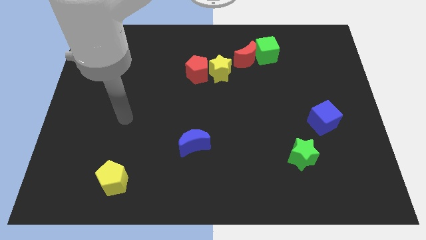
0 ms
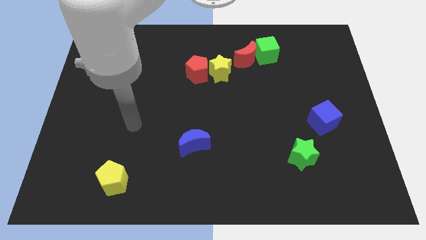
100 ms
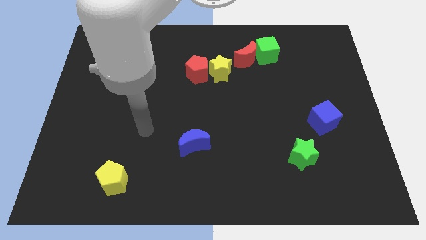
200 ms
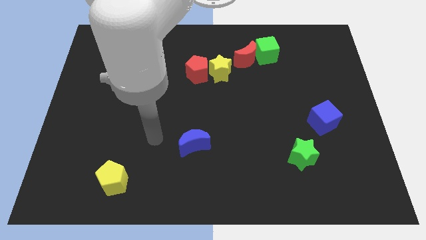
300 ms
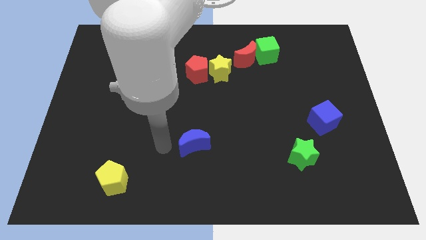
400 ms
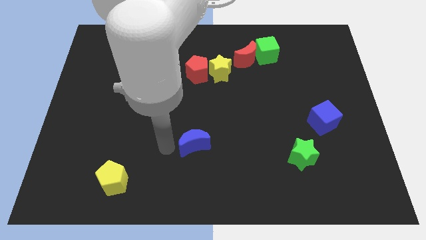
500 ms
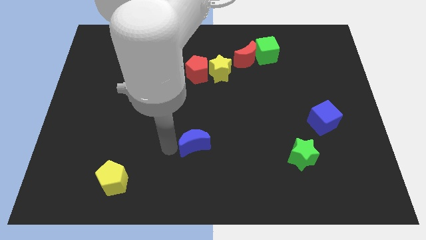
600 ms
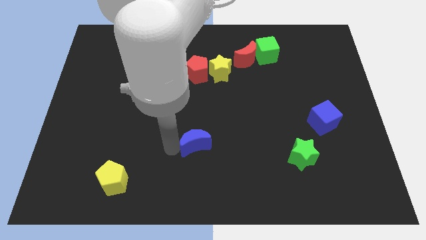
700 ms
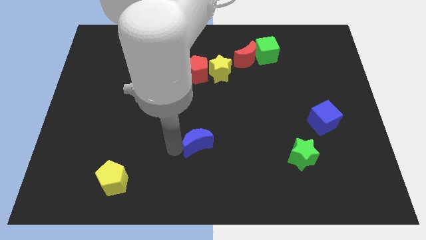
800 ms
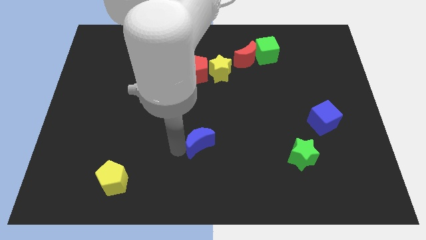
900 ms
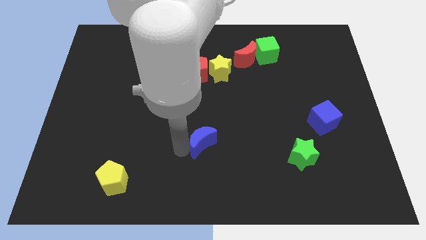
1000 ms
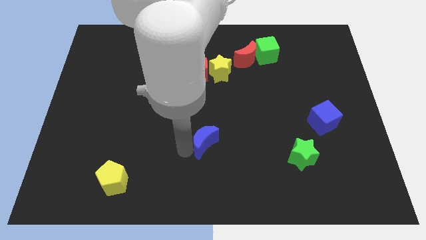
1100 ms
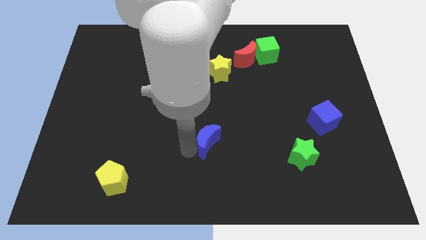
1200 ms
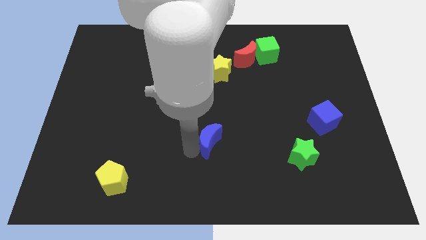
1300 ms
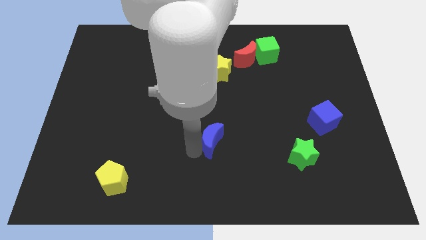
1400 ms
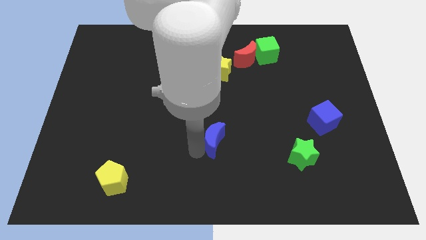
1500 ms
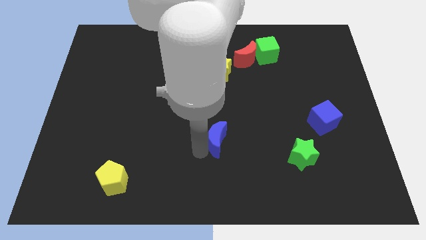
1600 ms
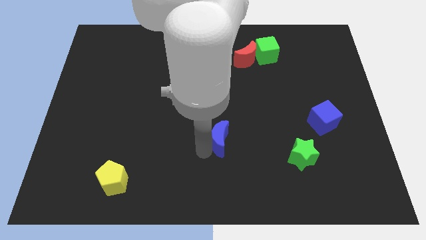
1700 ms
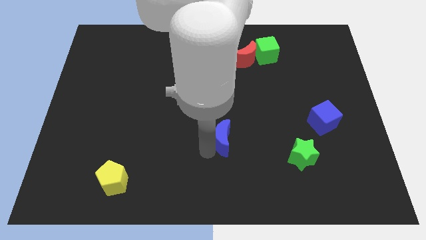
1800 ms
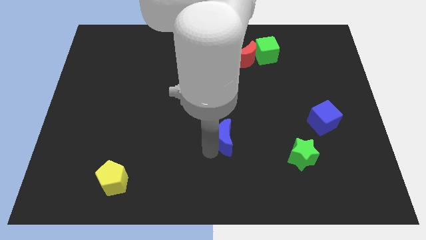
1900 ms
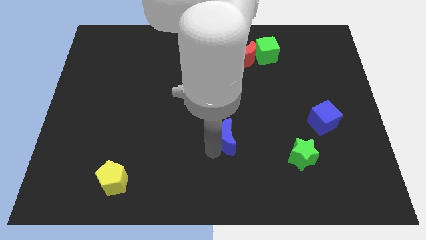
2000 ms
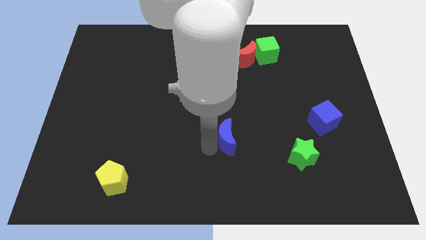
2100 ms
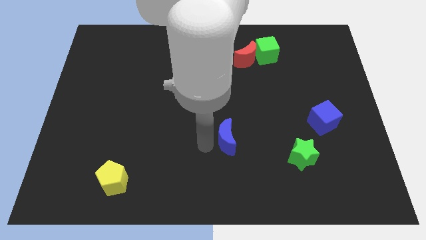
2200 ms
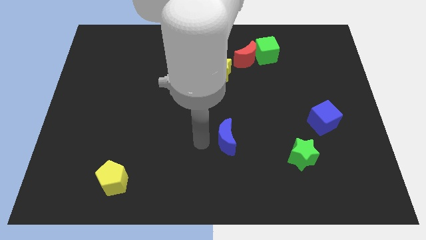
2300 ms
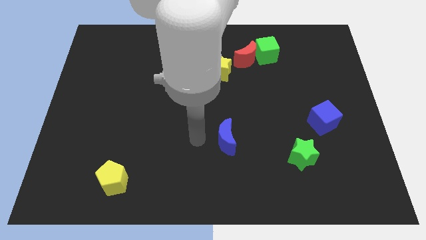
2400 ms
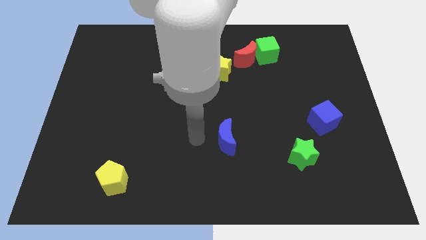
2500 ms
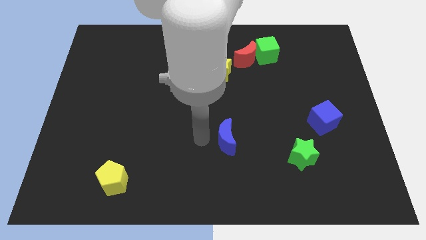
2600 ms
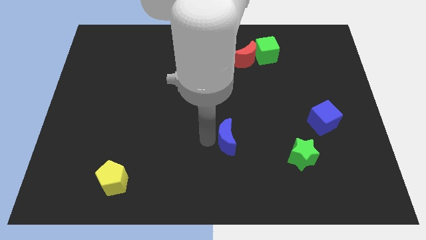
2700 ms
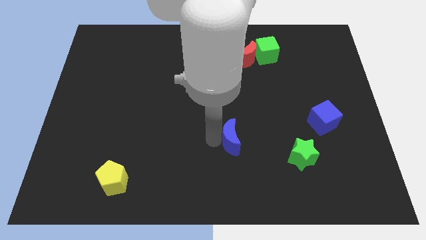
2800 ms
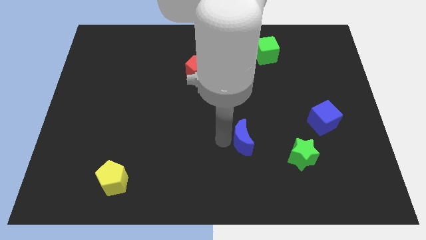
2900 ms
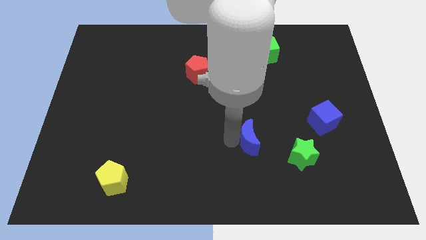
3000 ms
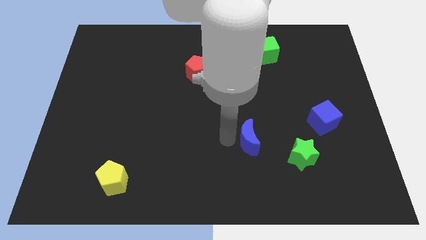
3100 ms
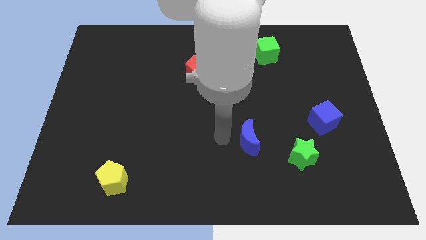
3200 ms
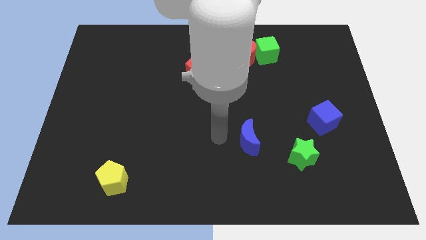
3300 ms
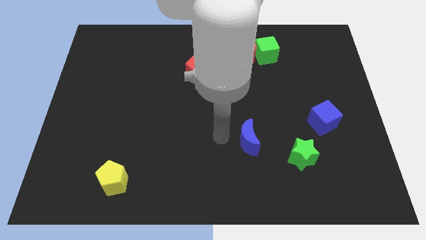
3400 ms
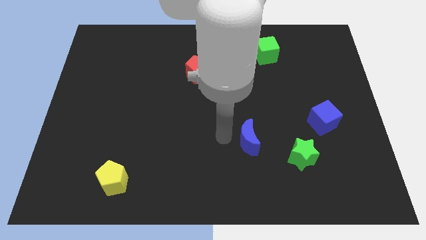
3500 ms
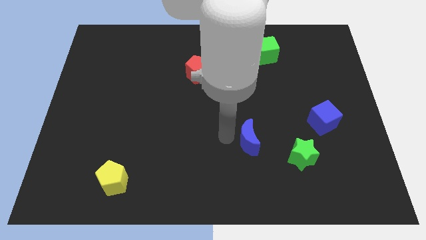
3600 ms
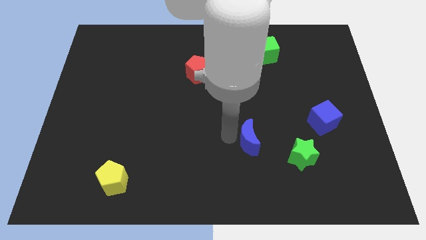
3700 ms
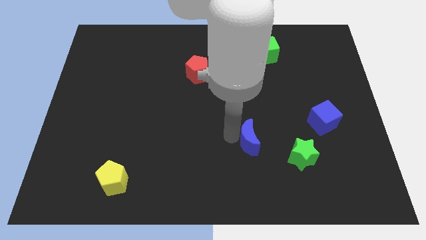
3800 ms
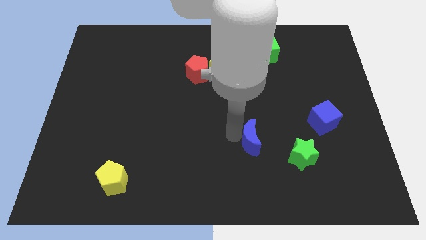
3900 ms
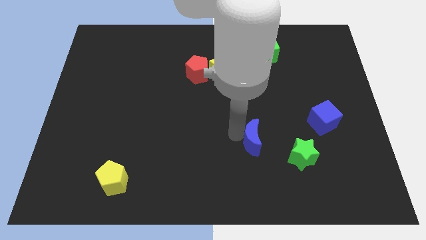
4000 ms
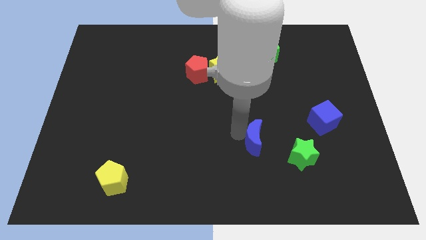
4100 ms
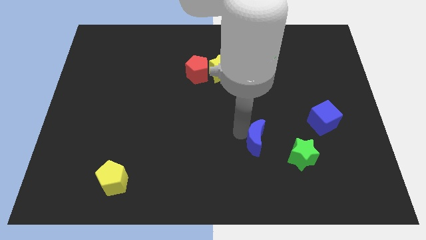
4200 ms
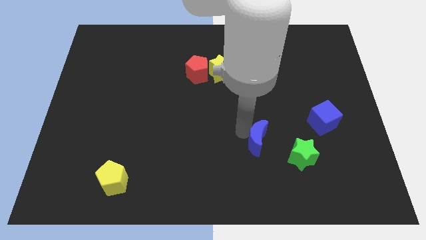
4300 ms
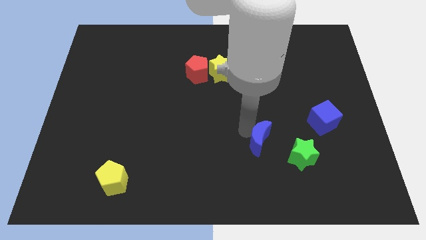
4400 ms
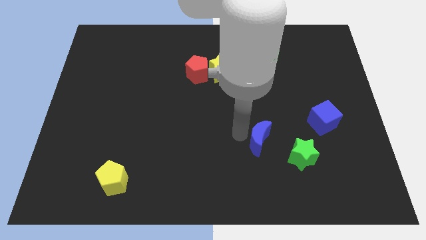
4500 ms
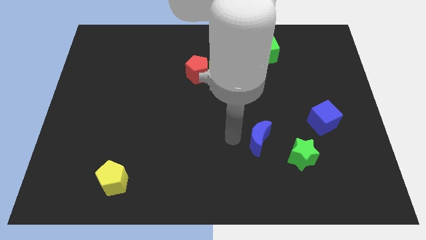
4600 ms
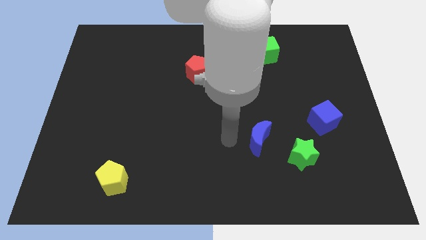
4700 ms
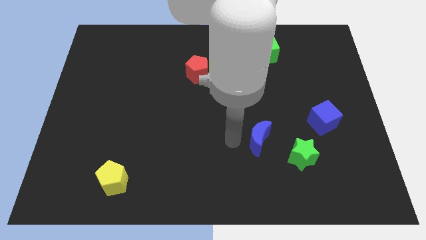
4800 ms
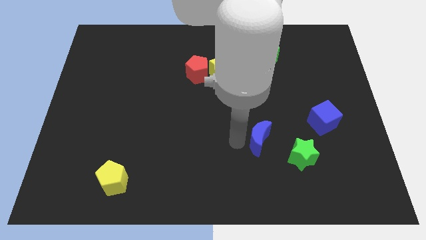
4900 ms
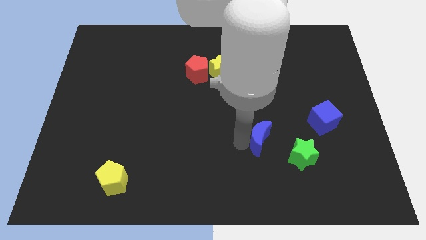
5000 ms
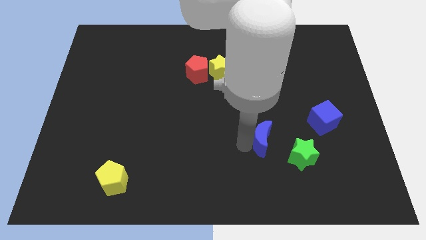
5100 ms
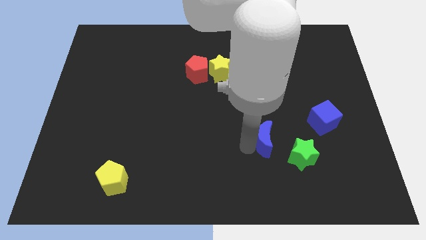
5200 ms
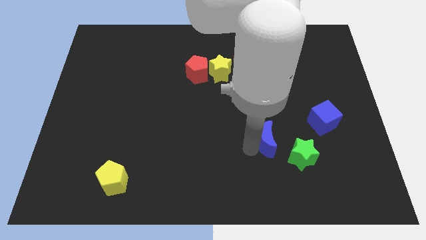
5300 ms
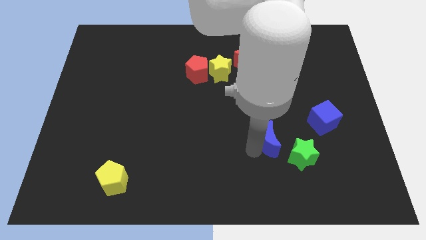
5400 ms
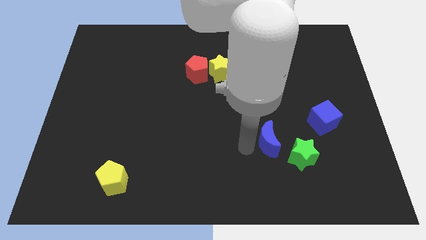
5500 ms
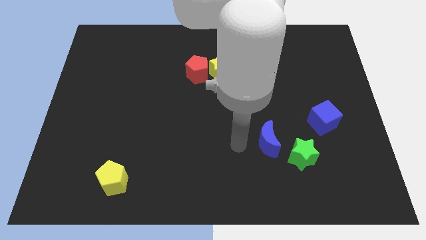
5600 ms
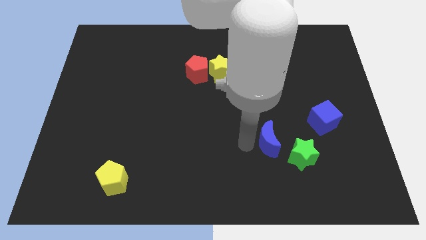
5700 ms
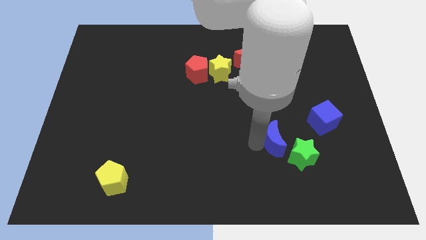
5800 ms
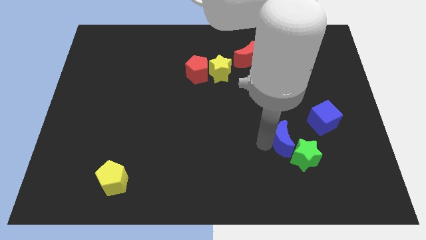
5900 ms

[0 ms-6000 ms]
move the blue moon diagonally down and to the left of the blue cube
